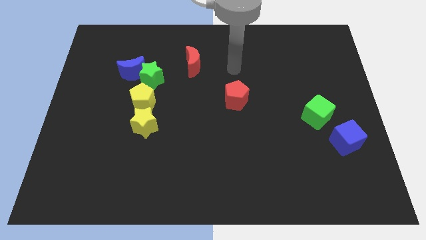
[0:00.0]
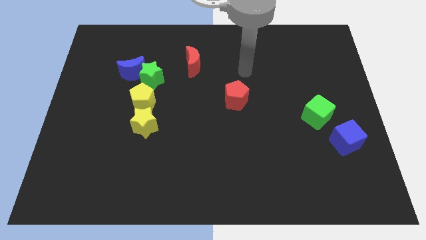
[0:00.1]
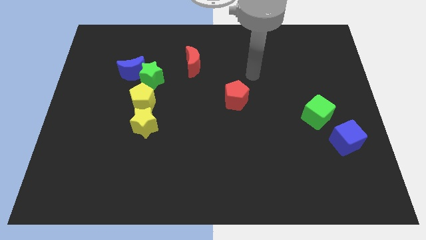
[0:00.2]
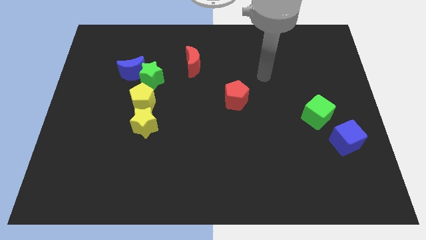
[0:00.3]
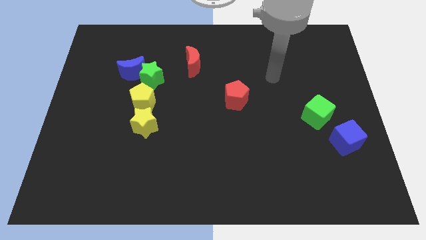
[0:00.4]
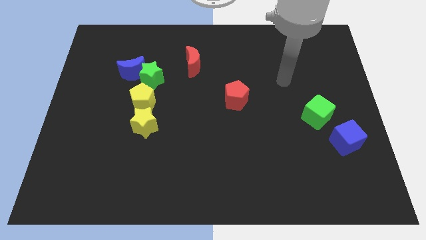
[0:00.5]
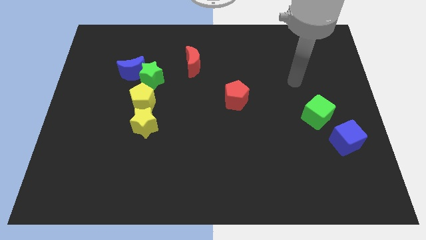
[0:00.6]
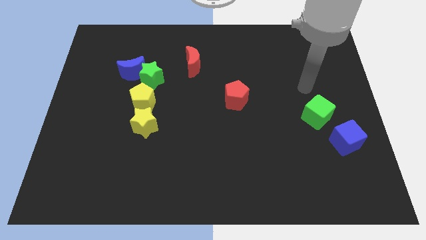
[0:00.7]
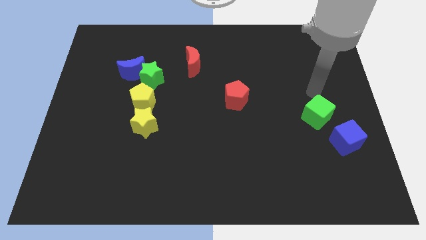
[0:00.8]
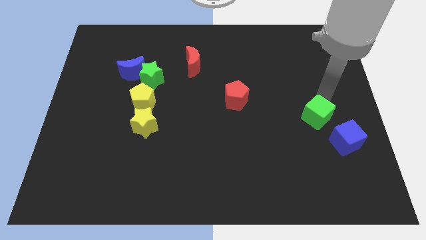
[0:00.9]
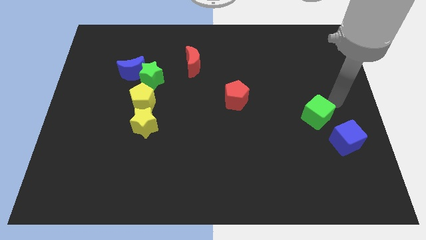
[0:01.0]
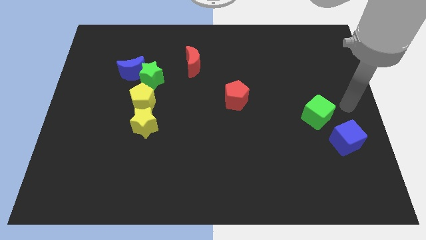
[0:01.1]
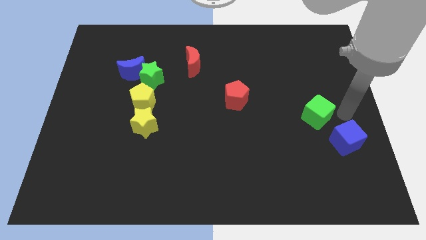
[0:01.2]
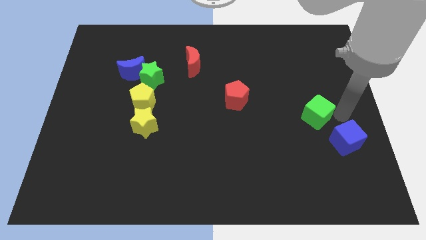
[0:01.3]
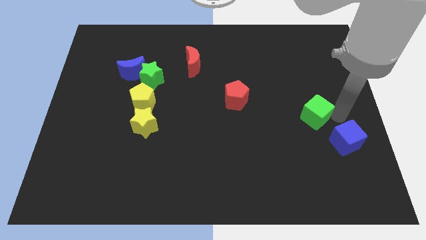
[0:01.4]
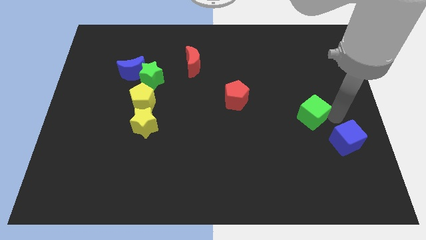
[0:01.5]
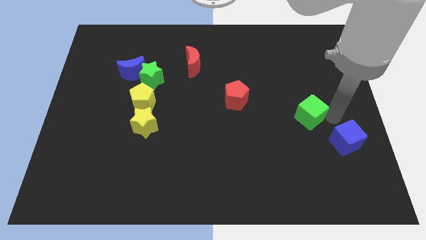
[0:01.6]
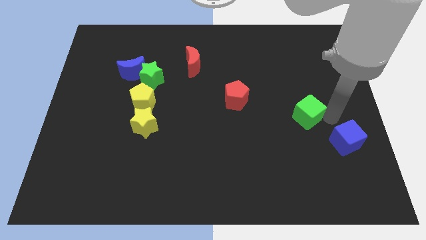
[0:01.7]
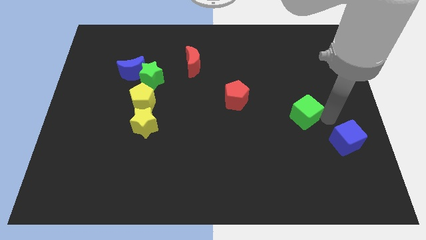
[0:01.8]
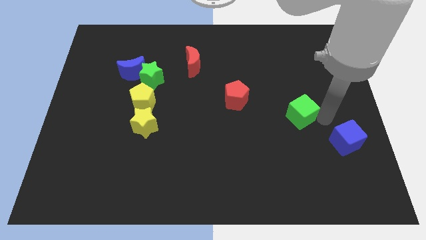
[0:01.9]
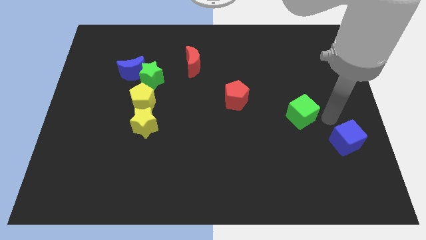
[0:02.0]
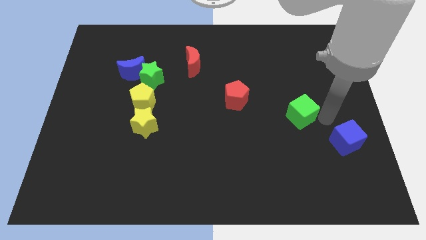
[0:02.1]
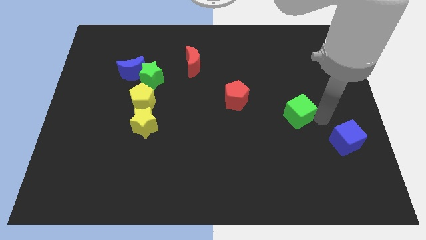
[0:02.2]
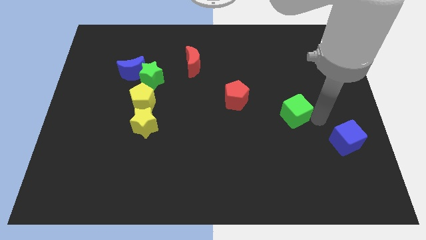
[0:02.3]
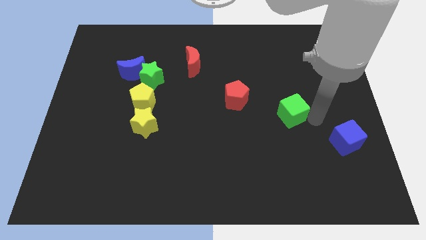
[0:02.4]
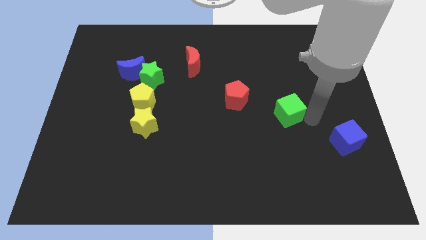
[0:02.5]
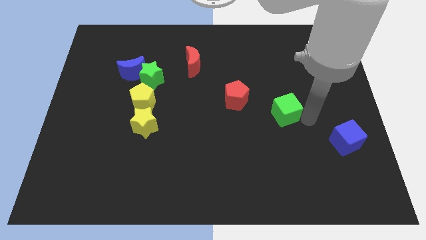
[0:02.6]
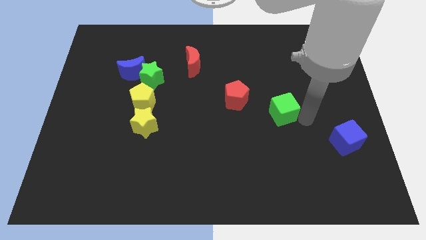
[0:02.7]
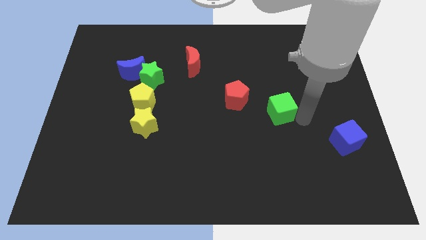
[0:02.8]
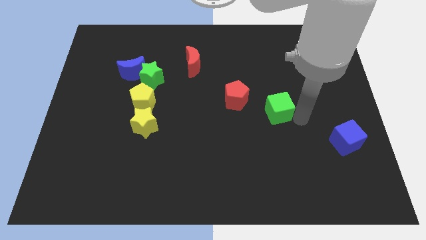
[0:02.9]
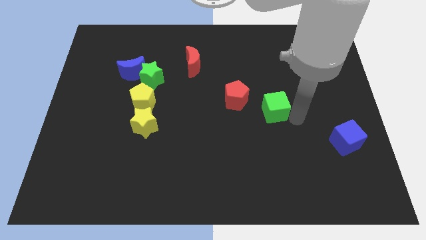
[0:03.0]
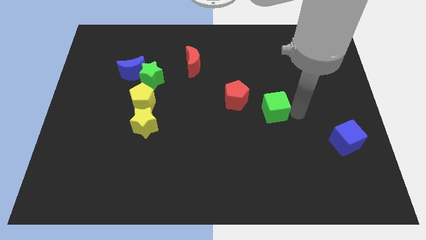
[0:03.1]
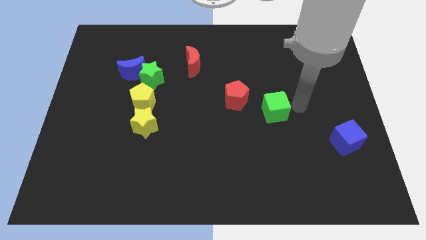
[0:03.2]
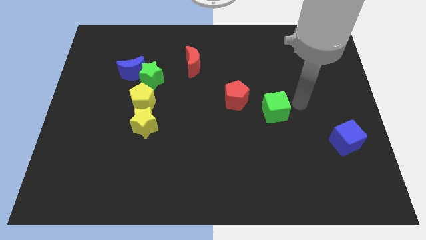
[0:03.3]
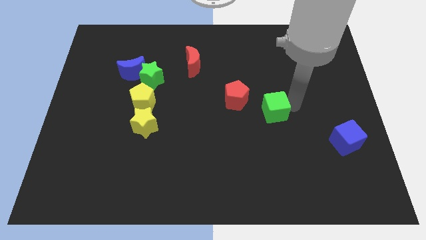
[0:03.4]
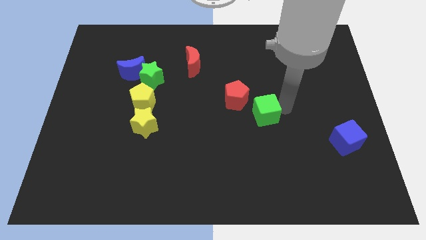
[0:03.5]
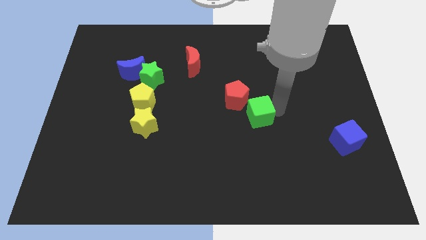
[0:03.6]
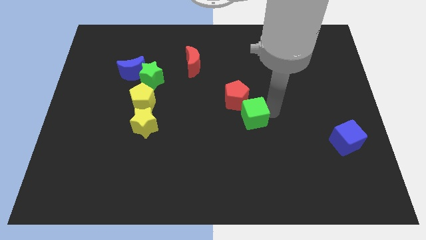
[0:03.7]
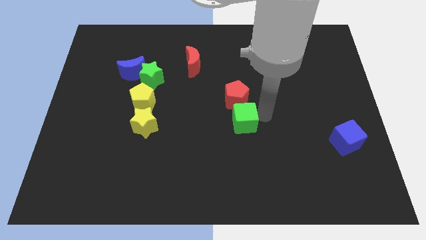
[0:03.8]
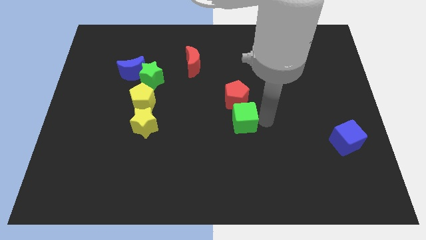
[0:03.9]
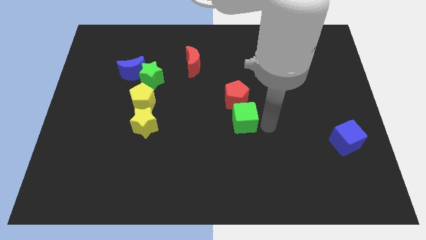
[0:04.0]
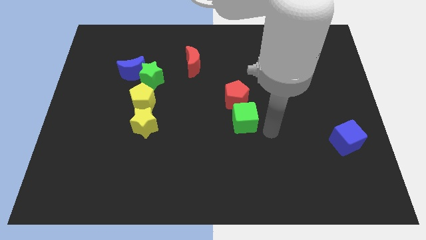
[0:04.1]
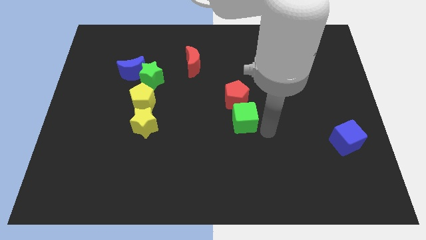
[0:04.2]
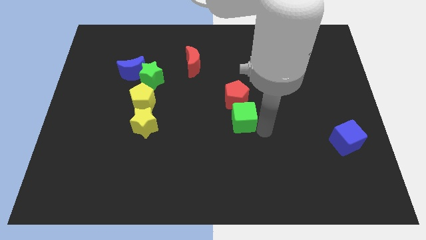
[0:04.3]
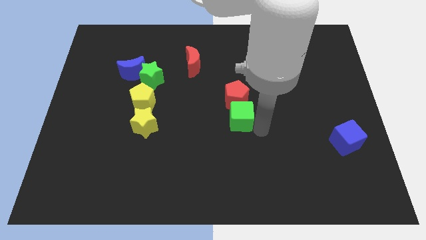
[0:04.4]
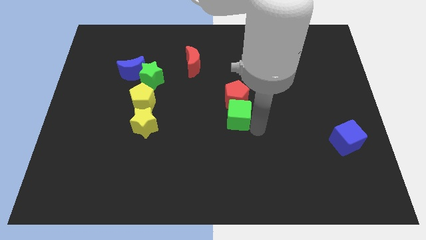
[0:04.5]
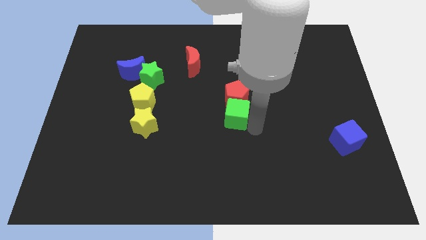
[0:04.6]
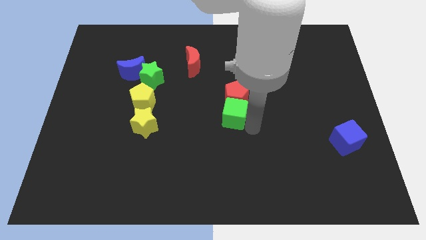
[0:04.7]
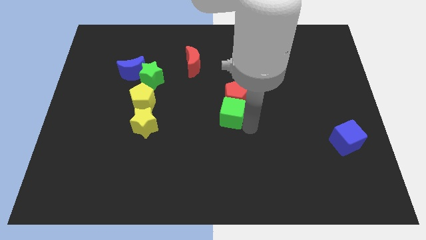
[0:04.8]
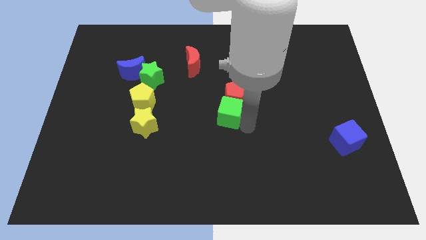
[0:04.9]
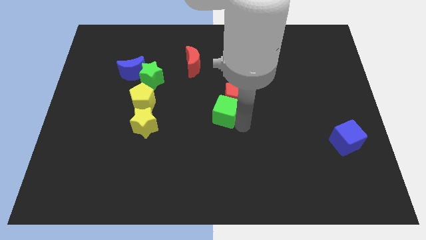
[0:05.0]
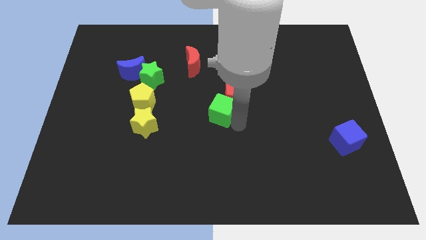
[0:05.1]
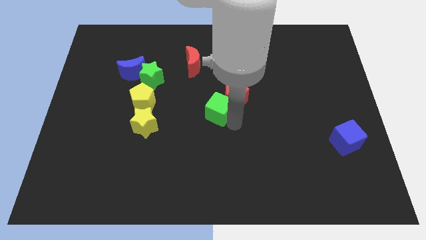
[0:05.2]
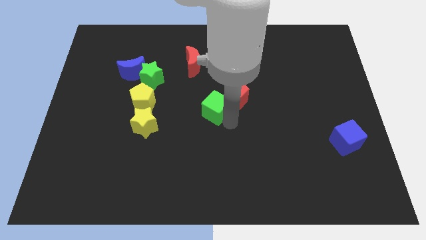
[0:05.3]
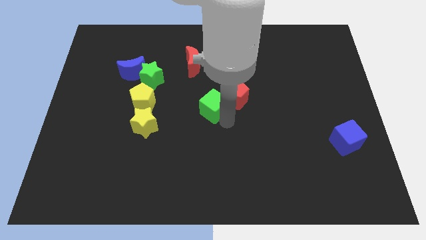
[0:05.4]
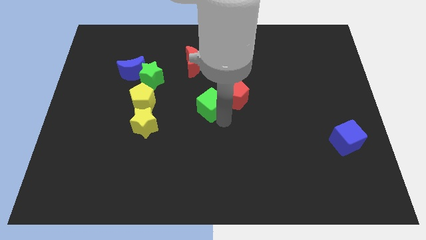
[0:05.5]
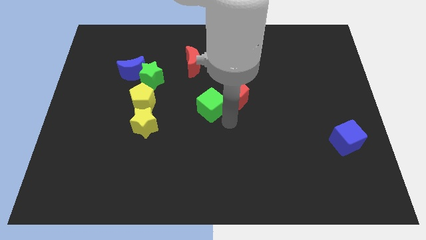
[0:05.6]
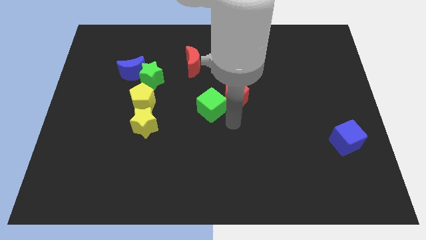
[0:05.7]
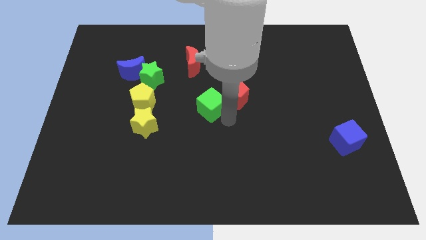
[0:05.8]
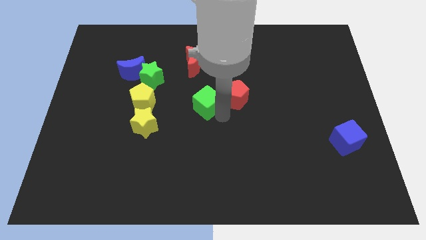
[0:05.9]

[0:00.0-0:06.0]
slide the green cube below the red moon

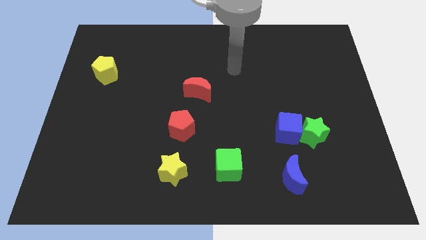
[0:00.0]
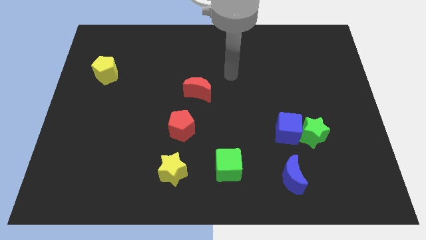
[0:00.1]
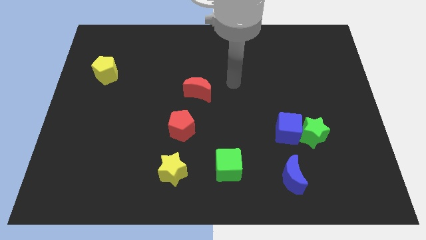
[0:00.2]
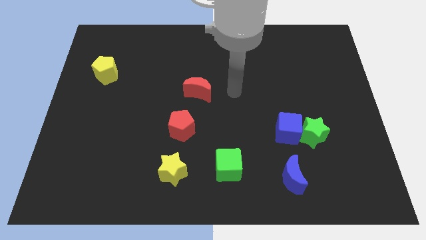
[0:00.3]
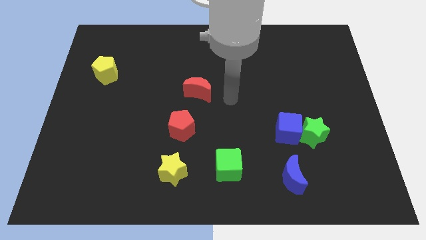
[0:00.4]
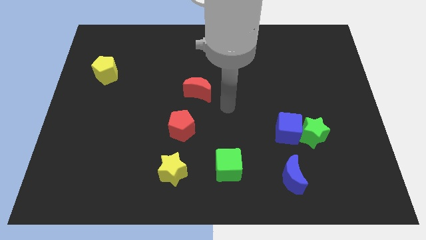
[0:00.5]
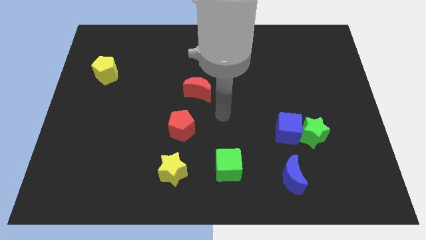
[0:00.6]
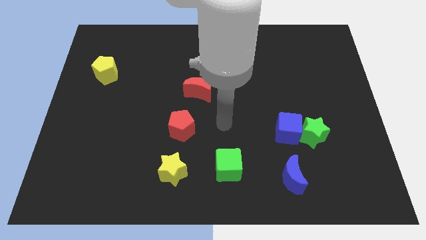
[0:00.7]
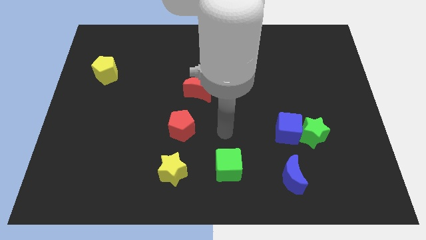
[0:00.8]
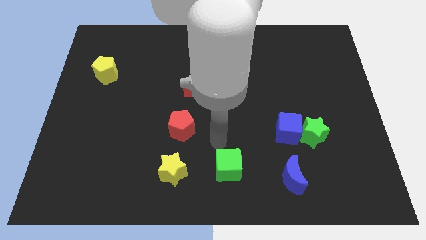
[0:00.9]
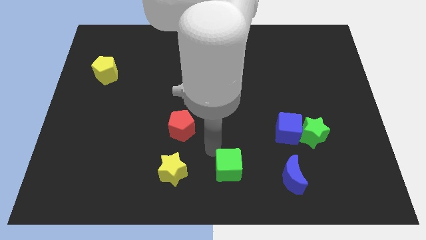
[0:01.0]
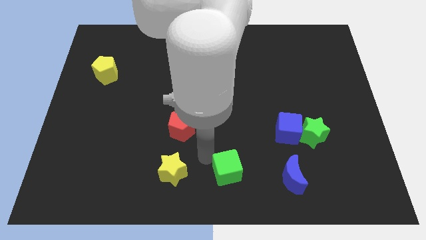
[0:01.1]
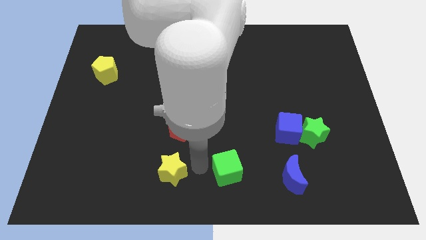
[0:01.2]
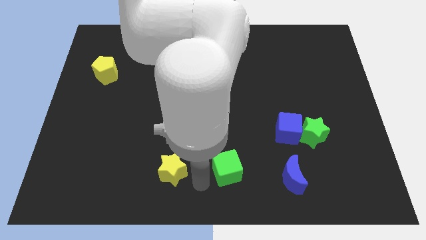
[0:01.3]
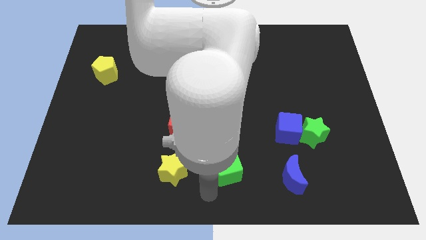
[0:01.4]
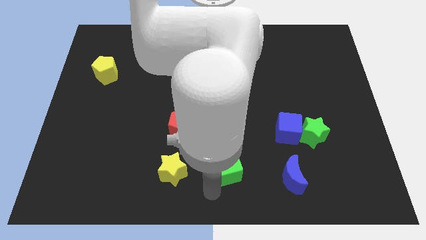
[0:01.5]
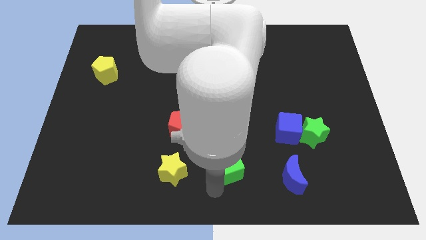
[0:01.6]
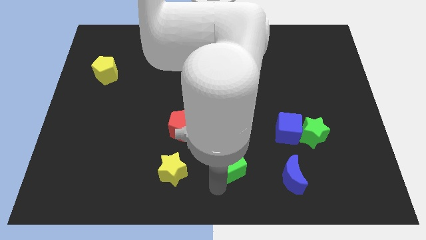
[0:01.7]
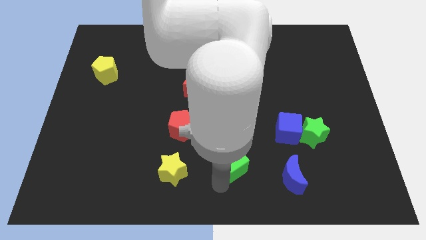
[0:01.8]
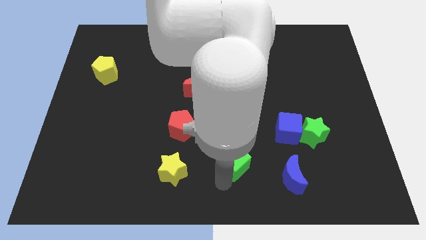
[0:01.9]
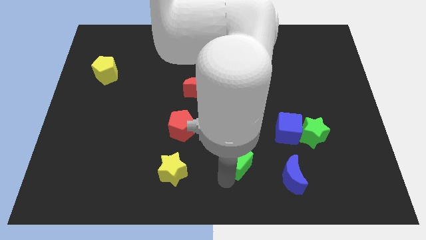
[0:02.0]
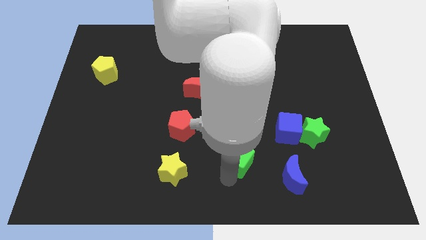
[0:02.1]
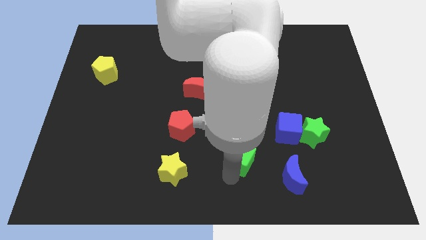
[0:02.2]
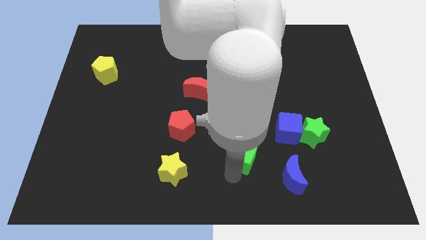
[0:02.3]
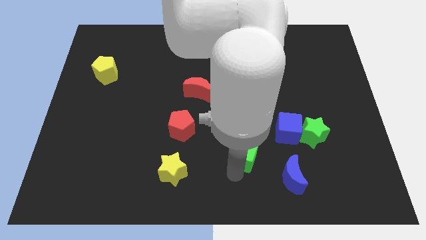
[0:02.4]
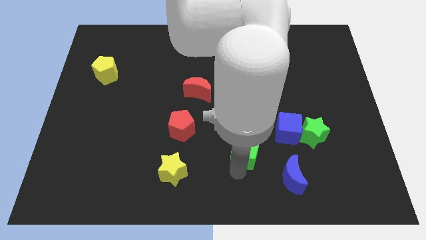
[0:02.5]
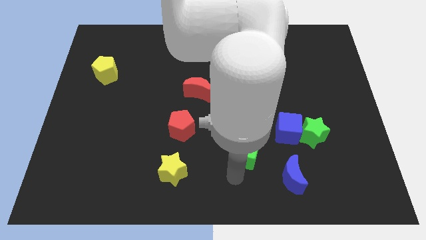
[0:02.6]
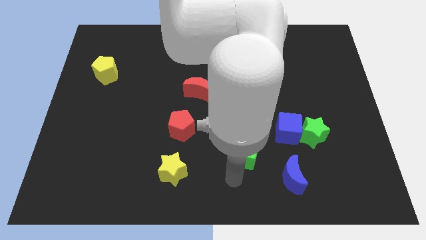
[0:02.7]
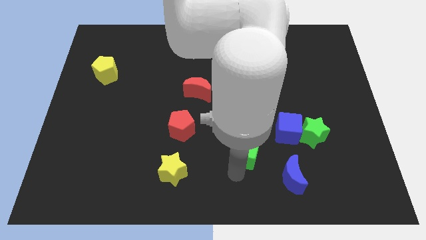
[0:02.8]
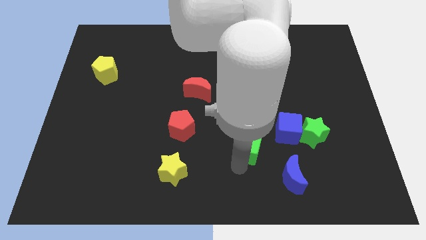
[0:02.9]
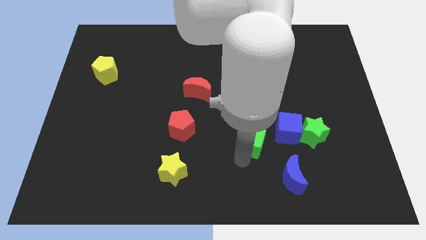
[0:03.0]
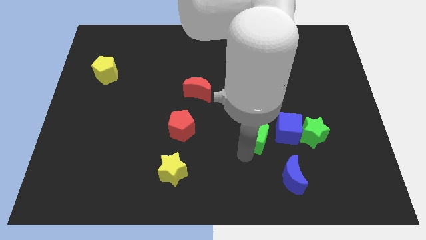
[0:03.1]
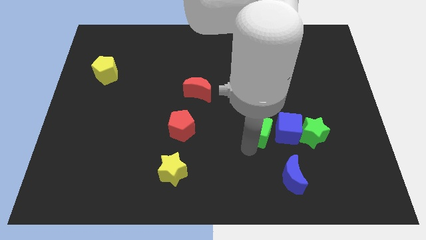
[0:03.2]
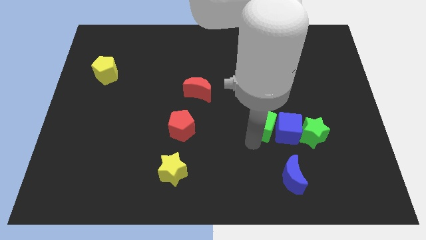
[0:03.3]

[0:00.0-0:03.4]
move the green cube diagonally up and to the left of the blue cube
